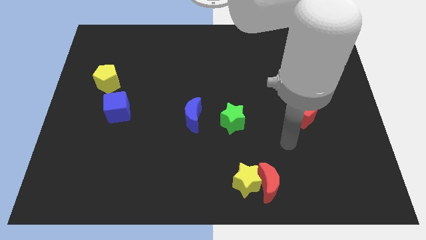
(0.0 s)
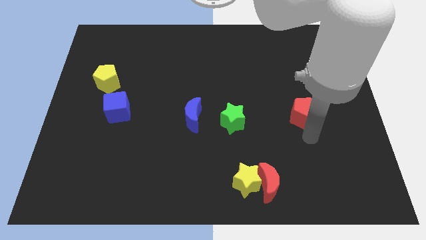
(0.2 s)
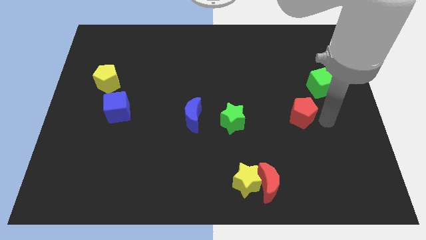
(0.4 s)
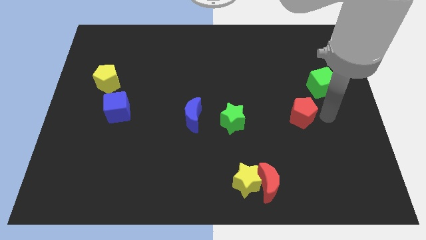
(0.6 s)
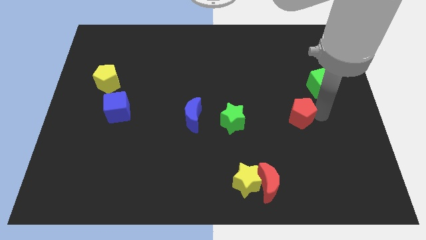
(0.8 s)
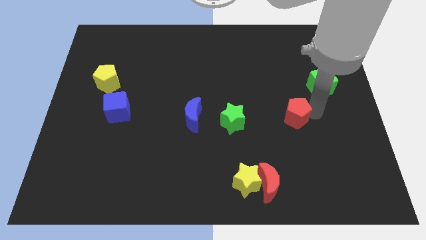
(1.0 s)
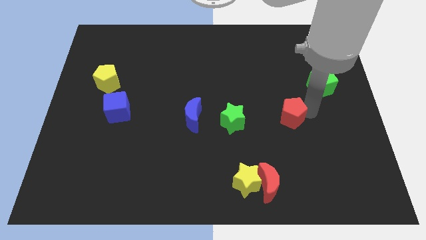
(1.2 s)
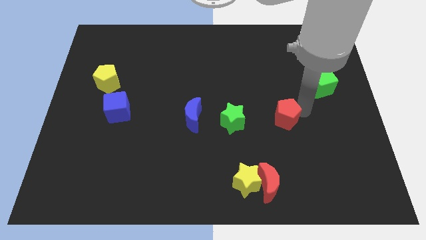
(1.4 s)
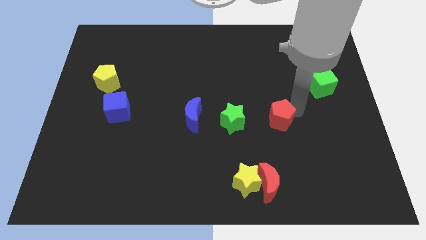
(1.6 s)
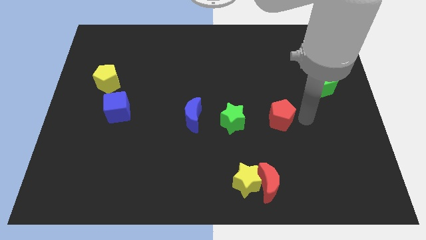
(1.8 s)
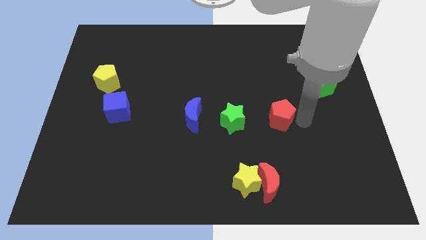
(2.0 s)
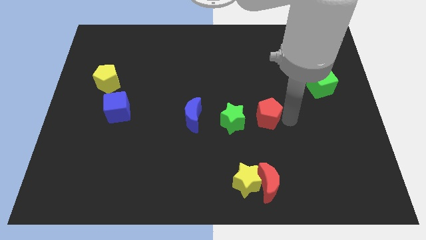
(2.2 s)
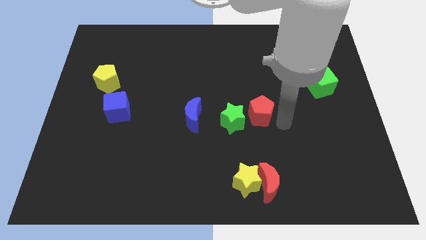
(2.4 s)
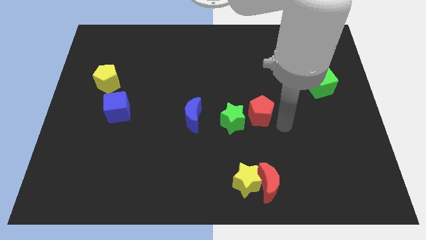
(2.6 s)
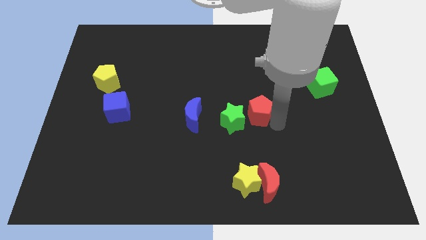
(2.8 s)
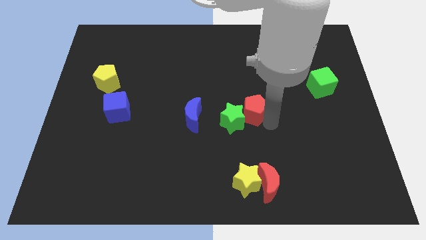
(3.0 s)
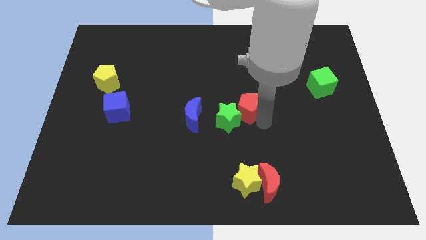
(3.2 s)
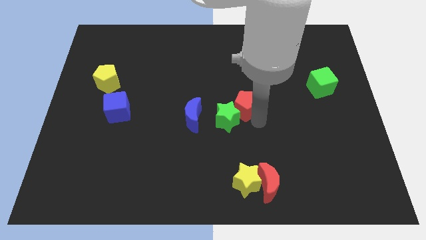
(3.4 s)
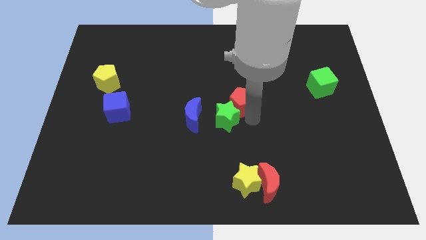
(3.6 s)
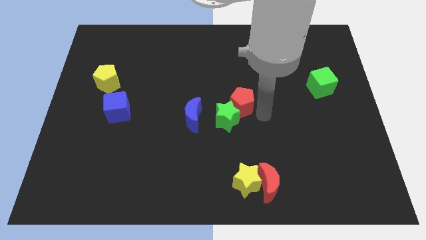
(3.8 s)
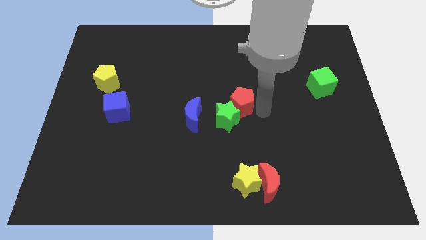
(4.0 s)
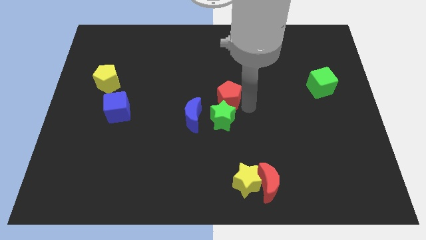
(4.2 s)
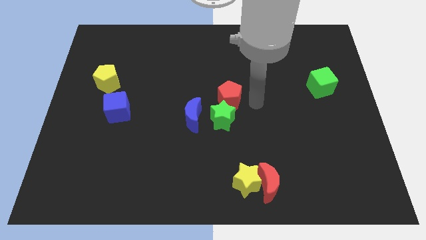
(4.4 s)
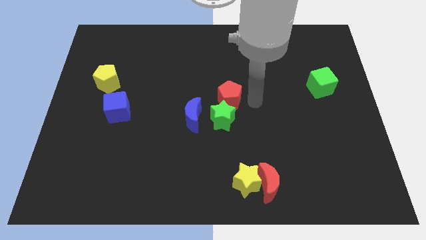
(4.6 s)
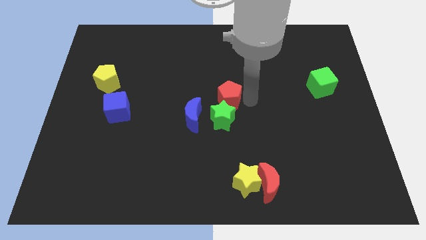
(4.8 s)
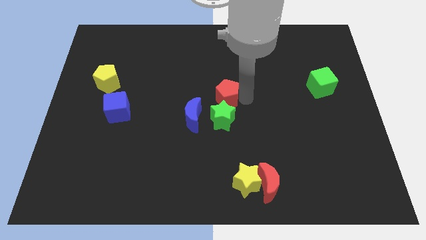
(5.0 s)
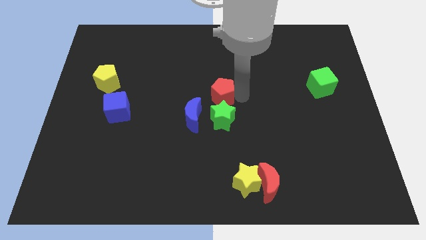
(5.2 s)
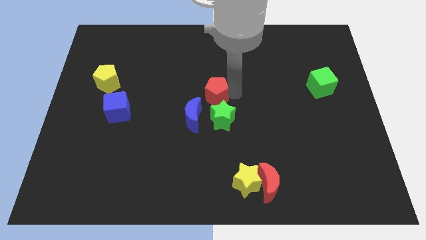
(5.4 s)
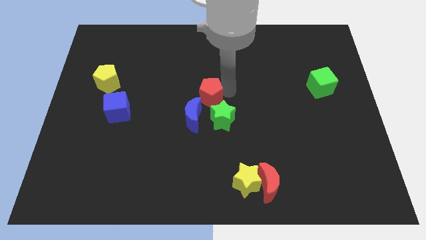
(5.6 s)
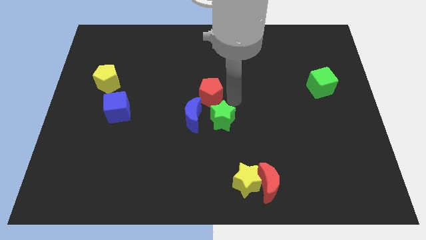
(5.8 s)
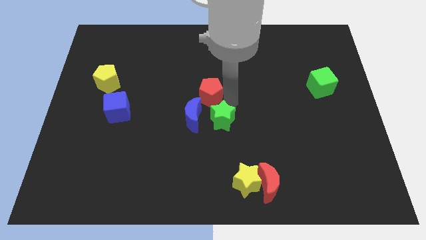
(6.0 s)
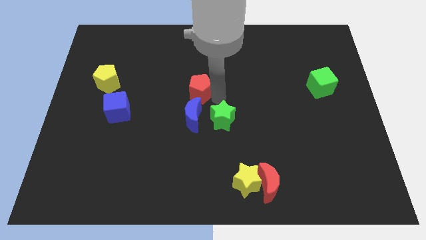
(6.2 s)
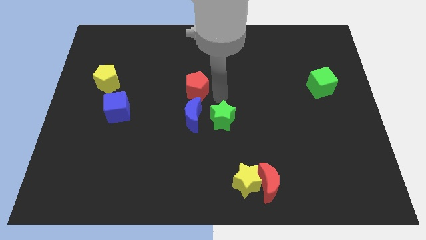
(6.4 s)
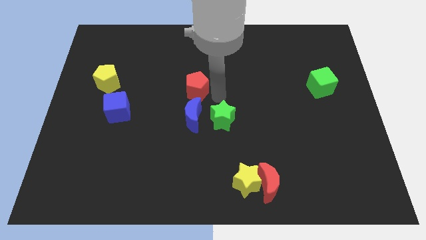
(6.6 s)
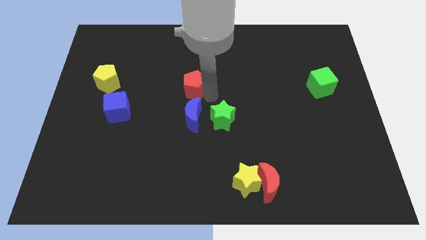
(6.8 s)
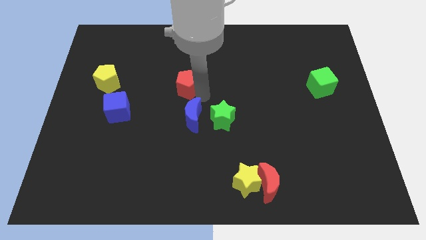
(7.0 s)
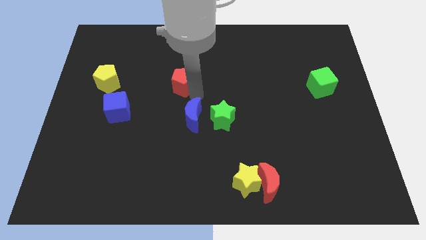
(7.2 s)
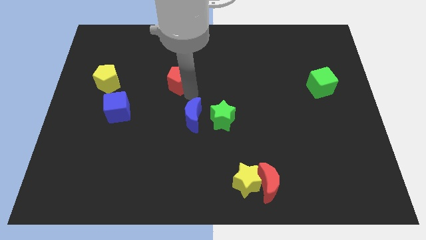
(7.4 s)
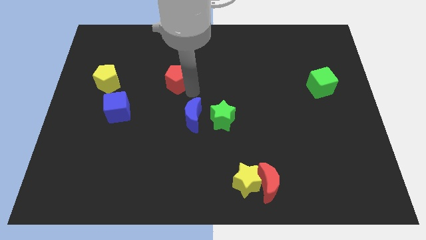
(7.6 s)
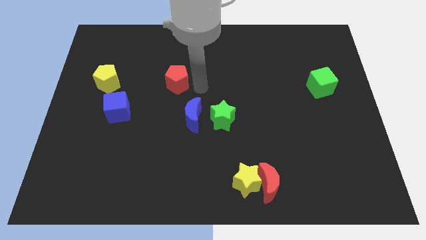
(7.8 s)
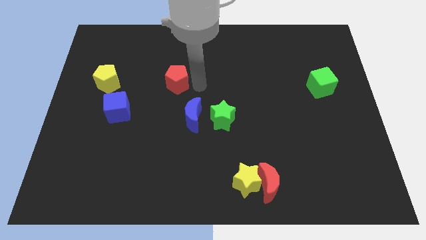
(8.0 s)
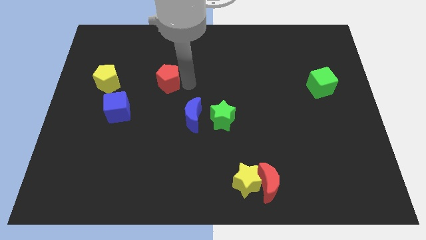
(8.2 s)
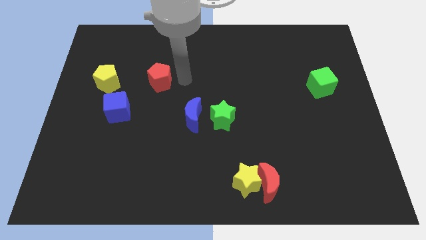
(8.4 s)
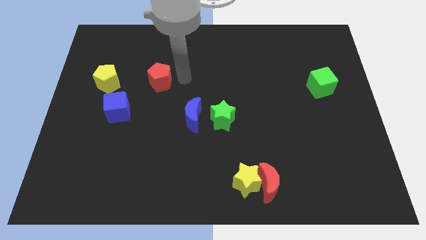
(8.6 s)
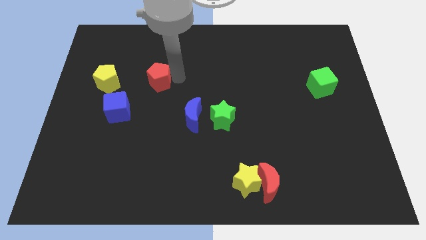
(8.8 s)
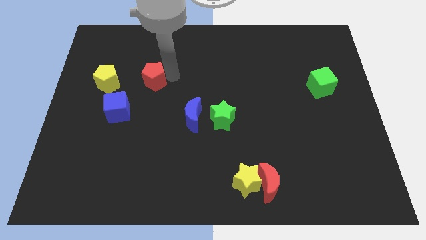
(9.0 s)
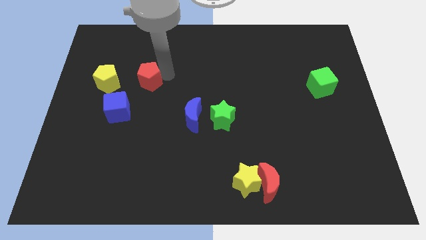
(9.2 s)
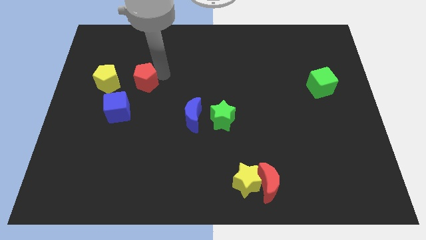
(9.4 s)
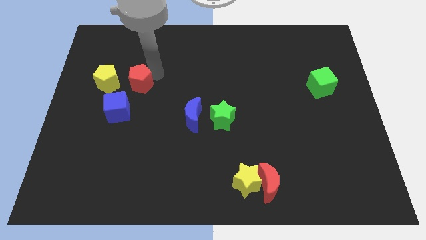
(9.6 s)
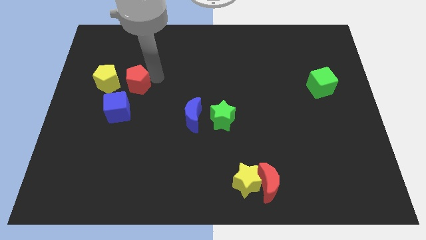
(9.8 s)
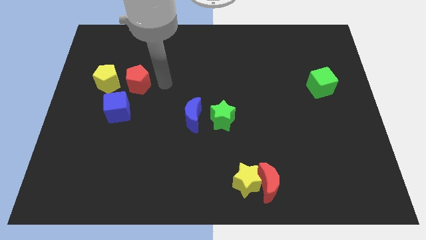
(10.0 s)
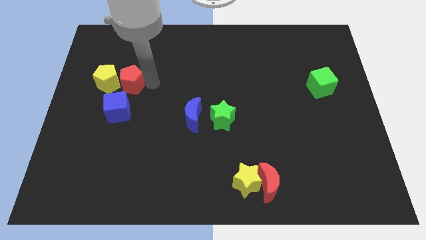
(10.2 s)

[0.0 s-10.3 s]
push the red pentagon to the yellow pentagon

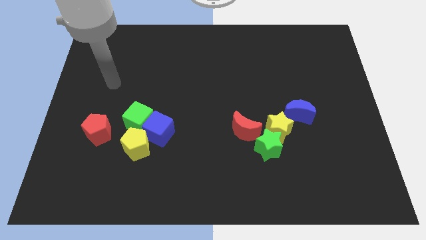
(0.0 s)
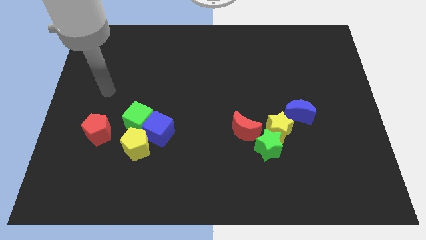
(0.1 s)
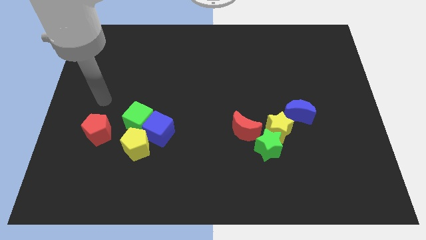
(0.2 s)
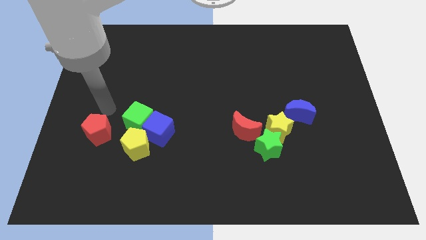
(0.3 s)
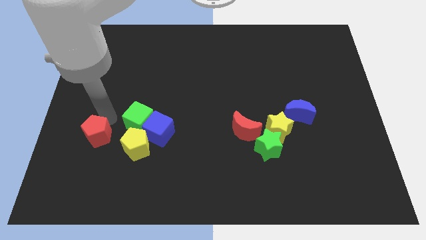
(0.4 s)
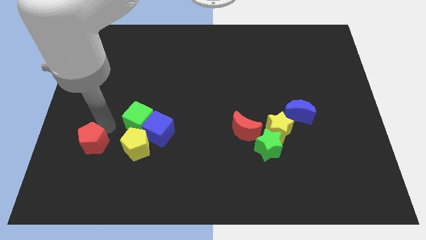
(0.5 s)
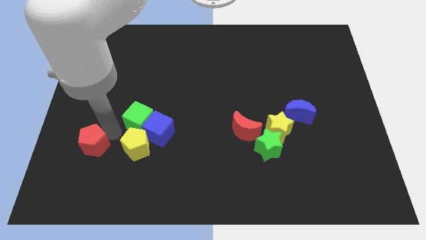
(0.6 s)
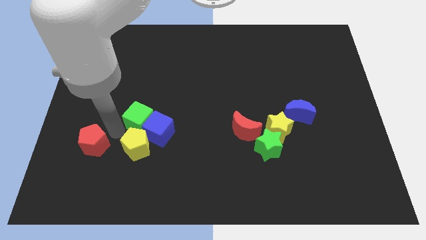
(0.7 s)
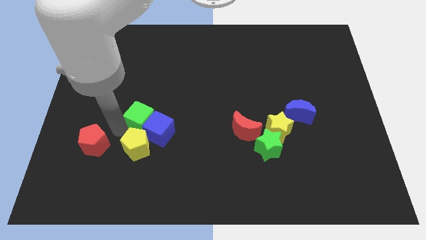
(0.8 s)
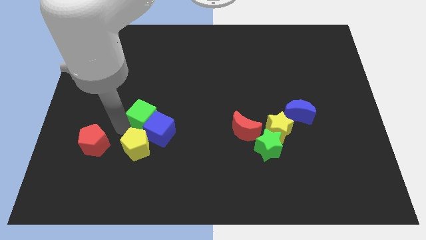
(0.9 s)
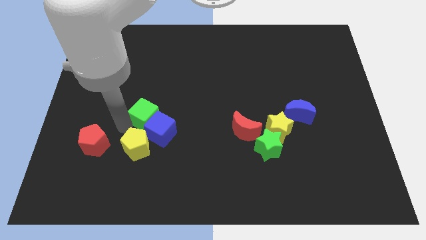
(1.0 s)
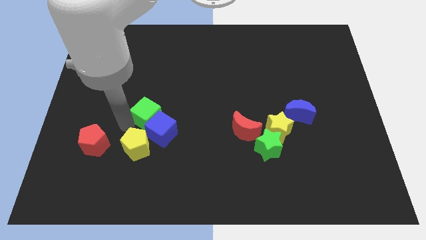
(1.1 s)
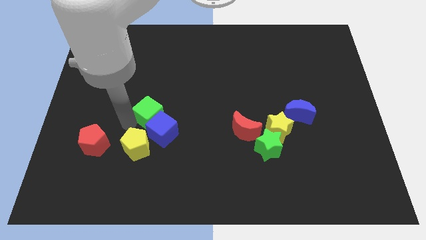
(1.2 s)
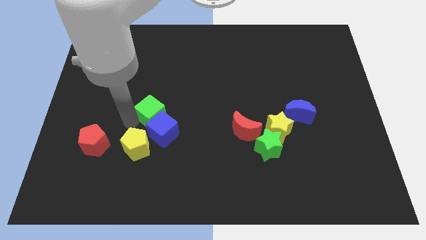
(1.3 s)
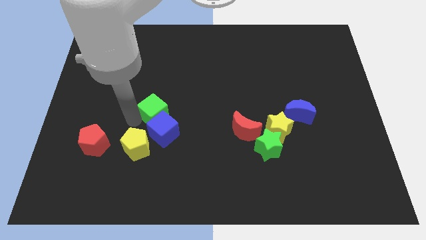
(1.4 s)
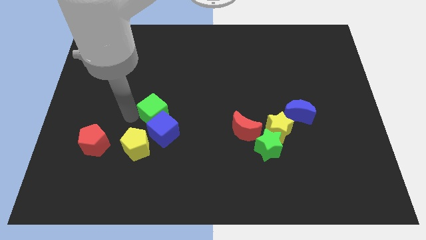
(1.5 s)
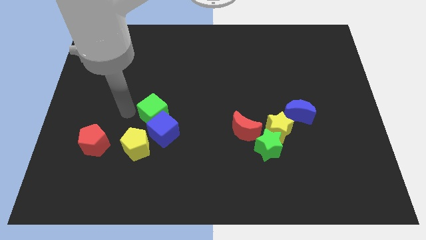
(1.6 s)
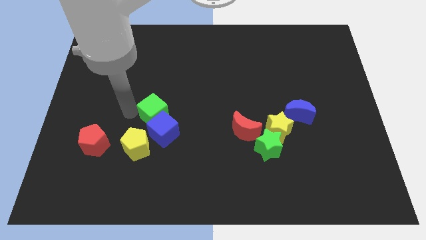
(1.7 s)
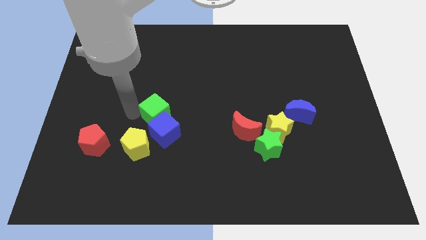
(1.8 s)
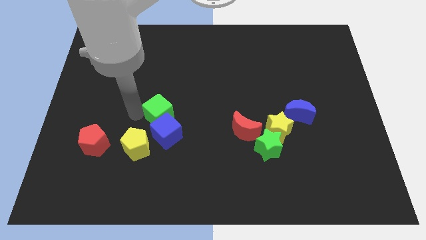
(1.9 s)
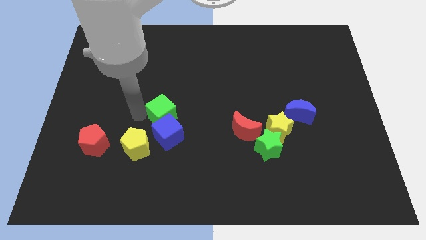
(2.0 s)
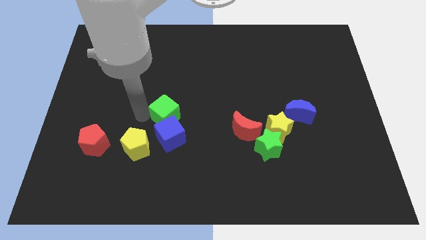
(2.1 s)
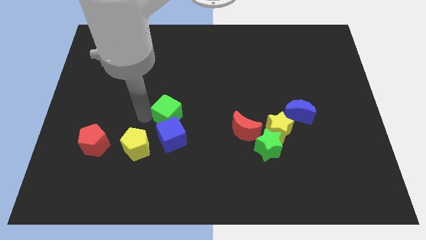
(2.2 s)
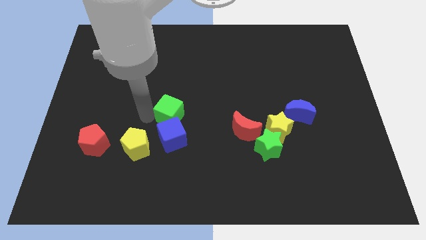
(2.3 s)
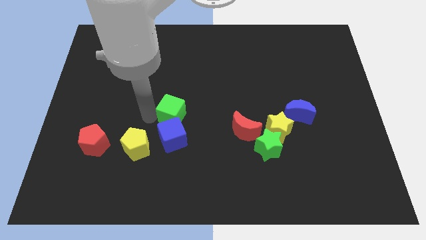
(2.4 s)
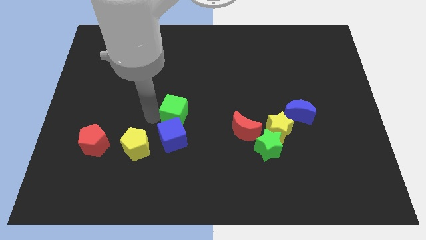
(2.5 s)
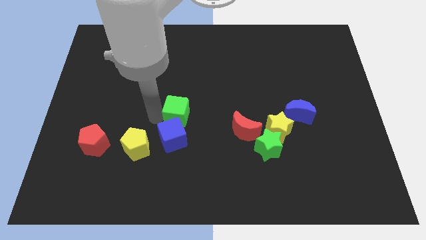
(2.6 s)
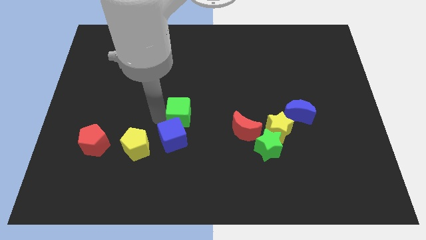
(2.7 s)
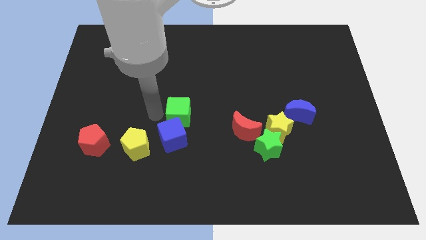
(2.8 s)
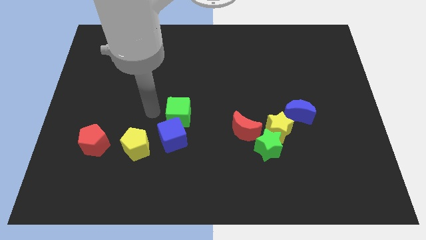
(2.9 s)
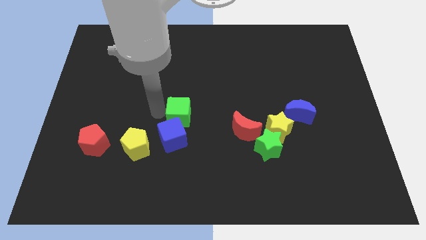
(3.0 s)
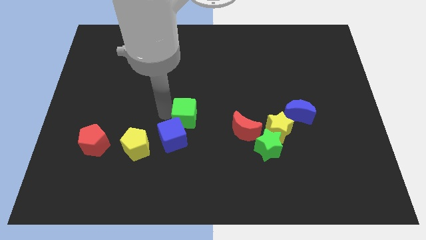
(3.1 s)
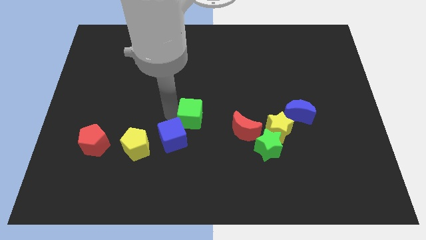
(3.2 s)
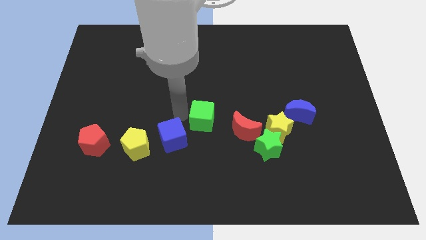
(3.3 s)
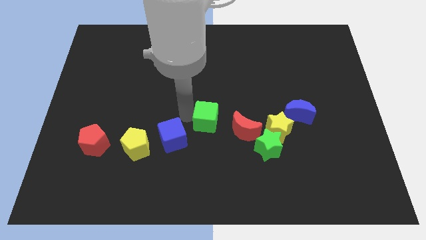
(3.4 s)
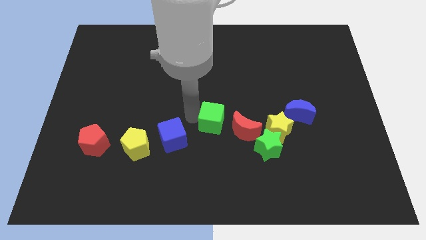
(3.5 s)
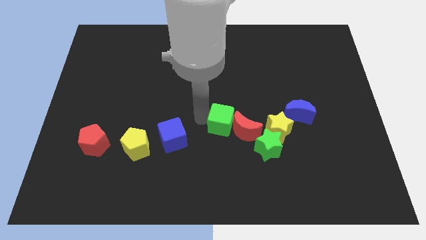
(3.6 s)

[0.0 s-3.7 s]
move the green cube to the red moon
